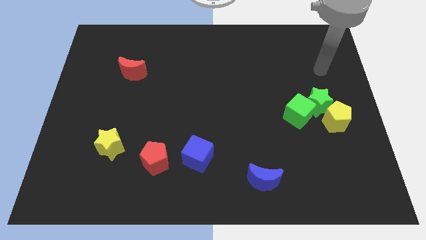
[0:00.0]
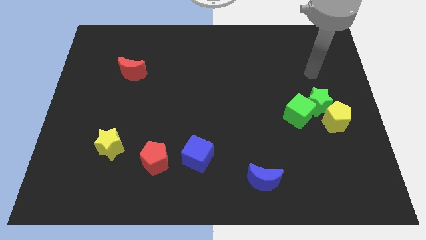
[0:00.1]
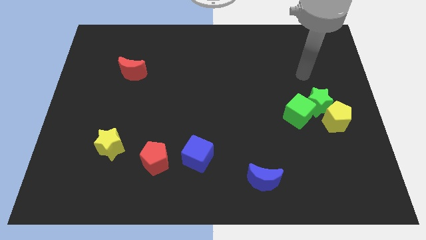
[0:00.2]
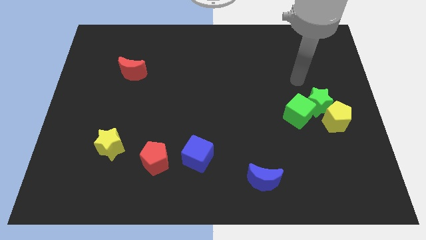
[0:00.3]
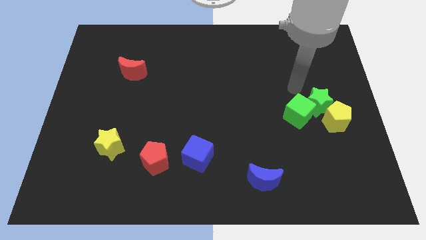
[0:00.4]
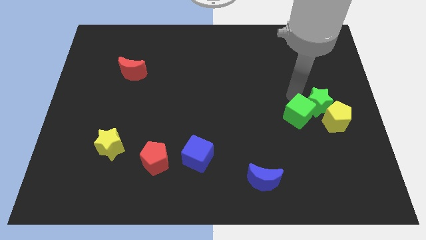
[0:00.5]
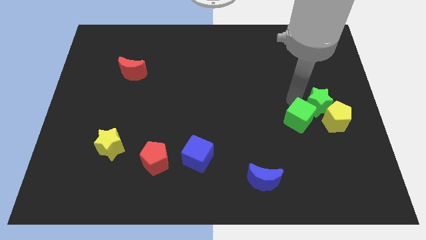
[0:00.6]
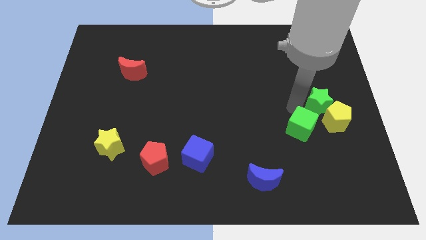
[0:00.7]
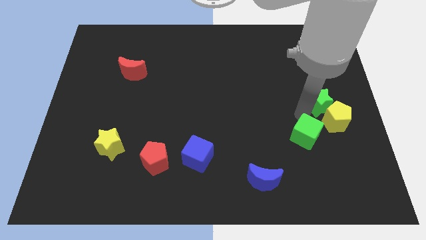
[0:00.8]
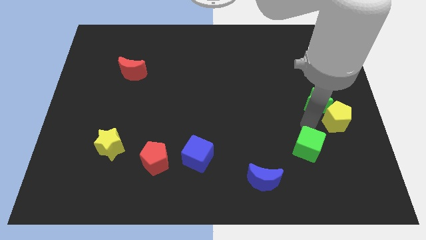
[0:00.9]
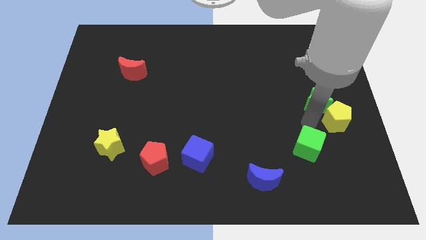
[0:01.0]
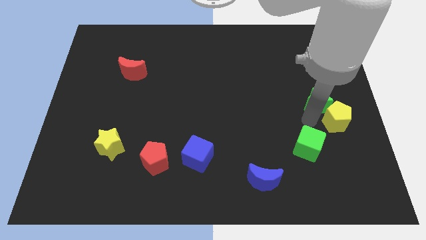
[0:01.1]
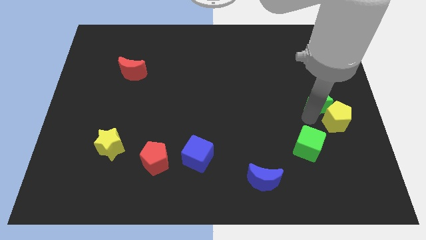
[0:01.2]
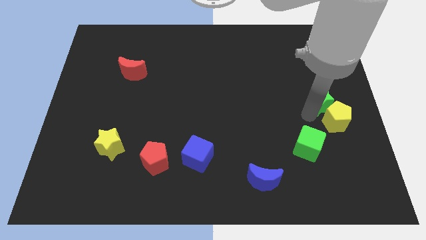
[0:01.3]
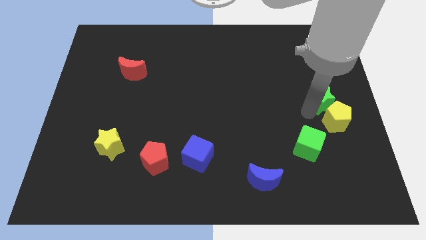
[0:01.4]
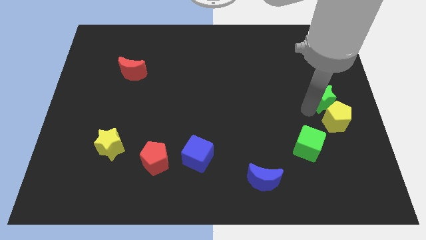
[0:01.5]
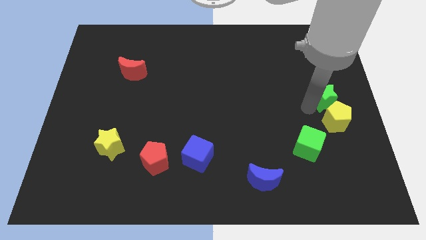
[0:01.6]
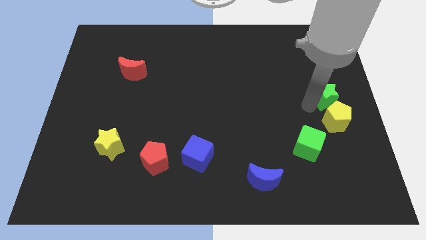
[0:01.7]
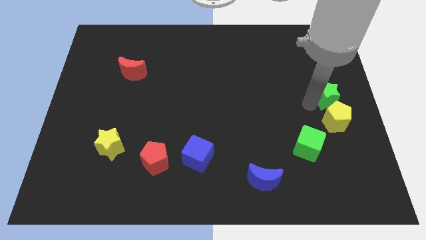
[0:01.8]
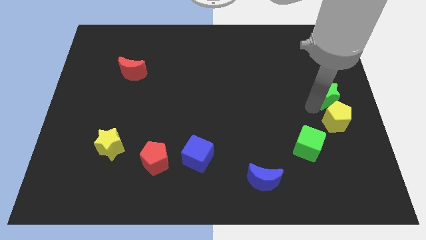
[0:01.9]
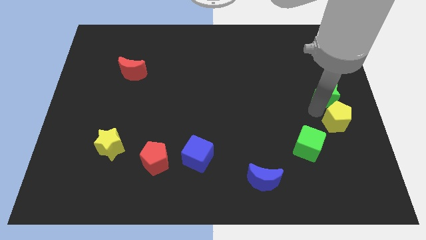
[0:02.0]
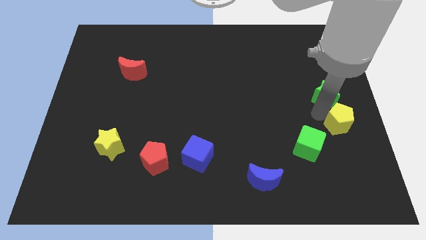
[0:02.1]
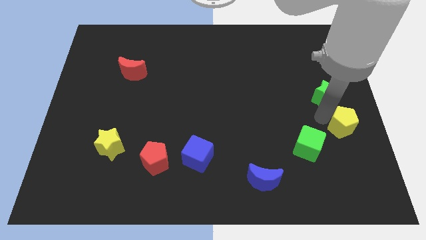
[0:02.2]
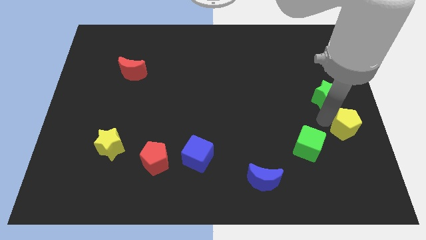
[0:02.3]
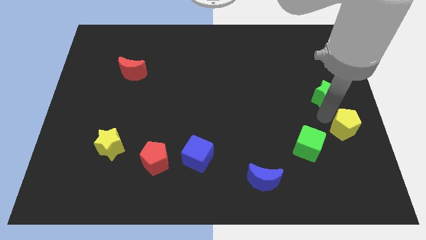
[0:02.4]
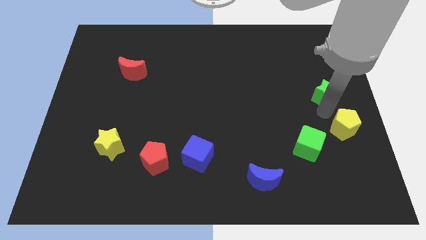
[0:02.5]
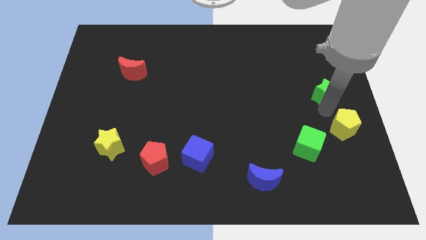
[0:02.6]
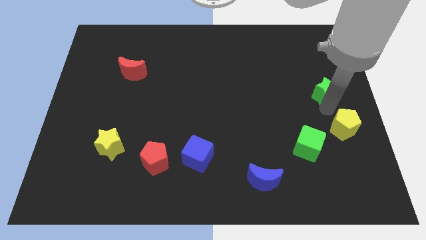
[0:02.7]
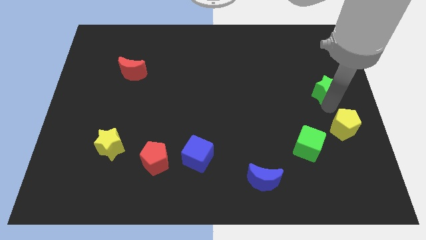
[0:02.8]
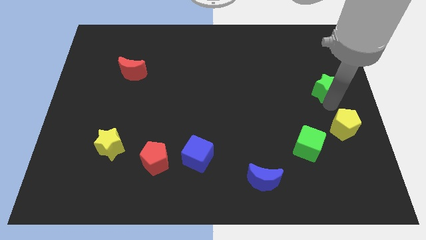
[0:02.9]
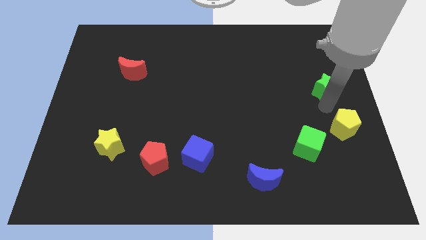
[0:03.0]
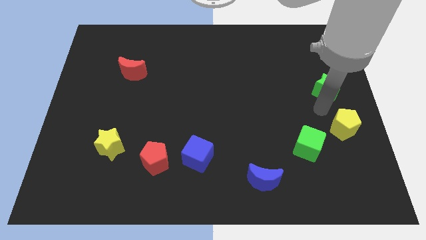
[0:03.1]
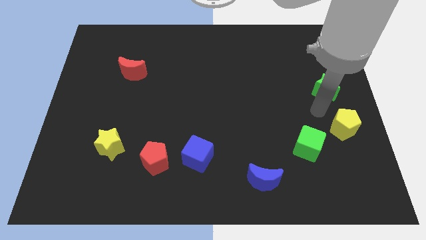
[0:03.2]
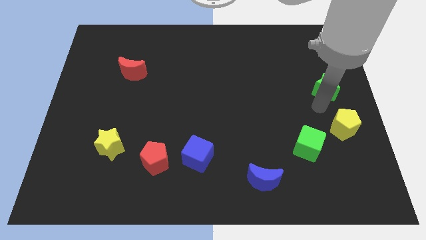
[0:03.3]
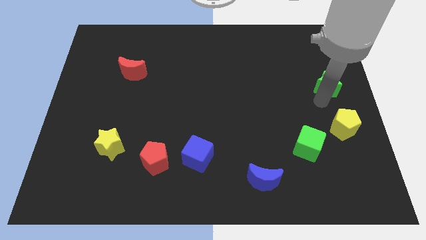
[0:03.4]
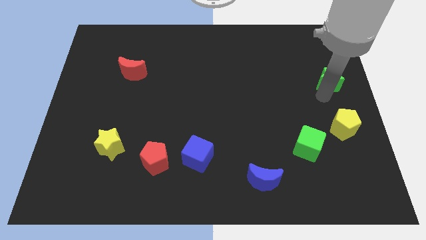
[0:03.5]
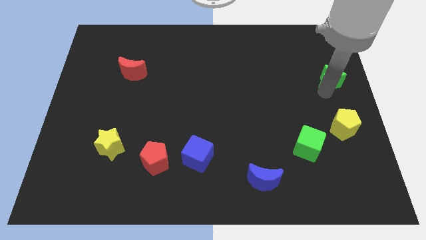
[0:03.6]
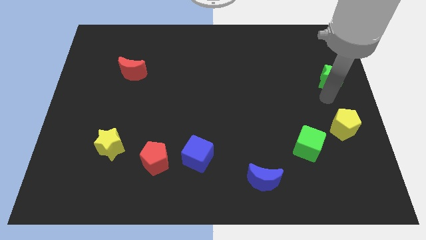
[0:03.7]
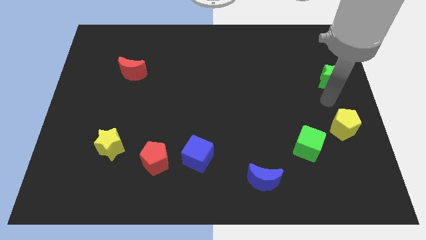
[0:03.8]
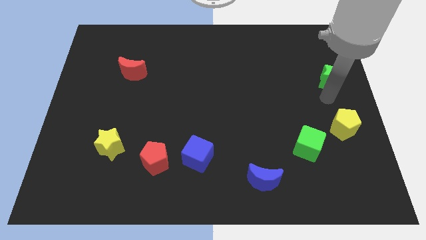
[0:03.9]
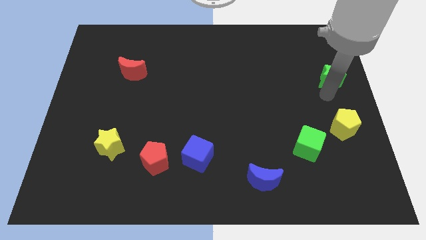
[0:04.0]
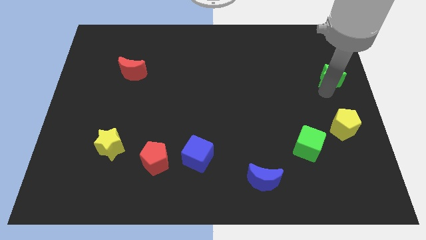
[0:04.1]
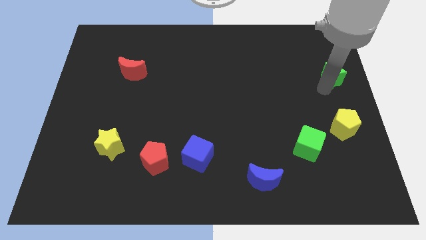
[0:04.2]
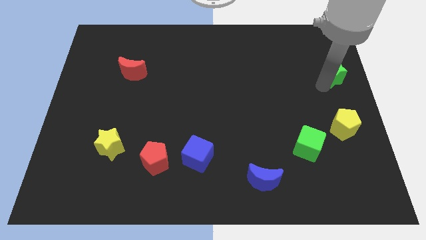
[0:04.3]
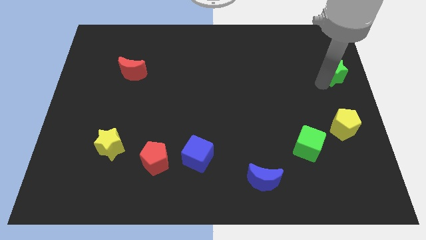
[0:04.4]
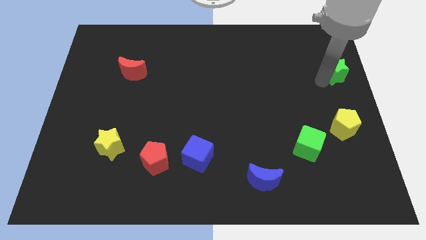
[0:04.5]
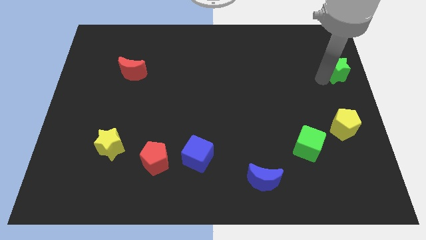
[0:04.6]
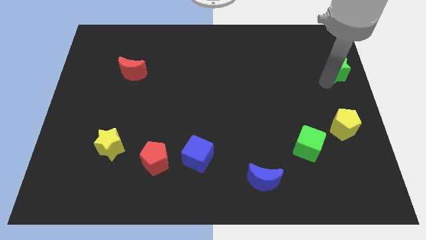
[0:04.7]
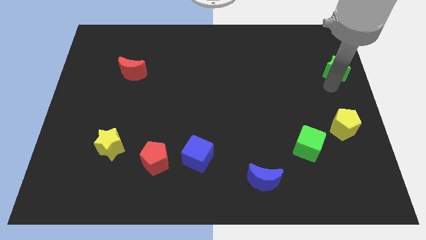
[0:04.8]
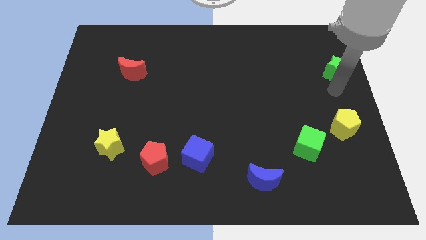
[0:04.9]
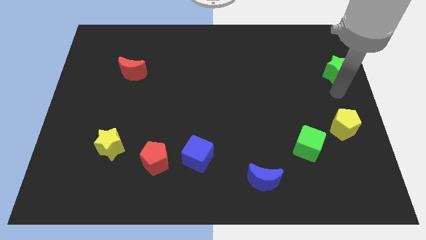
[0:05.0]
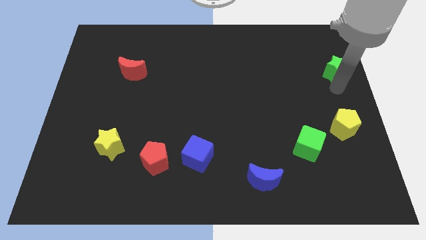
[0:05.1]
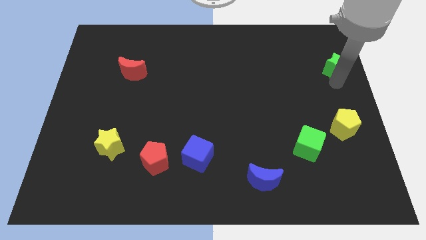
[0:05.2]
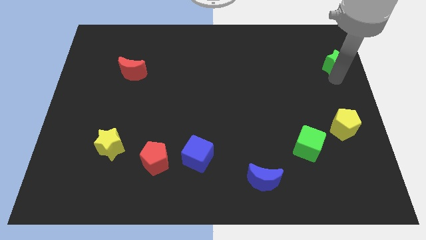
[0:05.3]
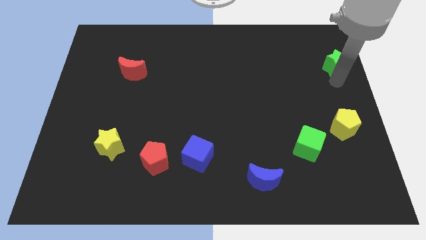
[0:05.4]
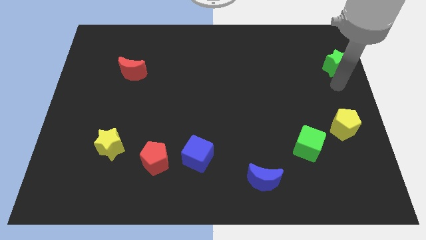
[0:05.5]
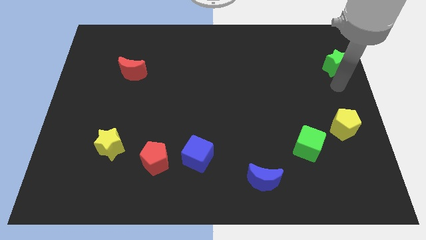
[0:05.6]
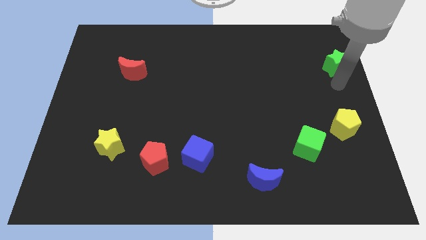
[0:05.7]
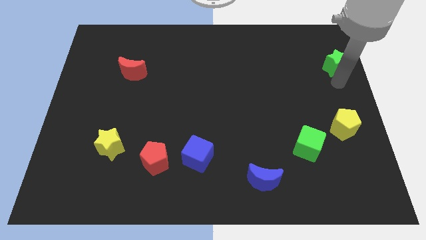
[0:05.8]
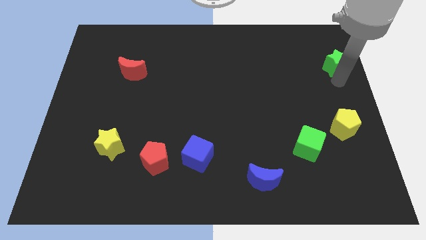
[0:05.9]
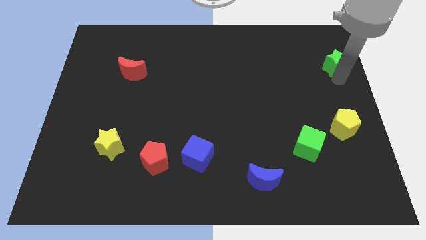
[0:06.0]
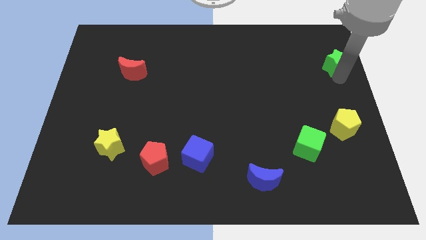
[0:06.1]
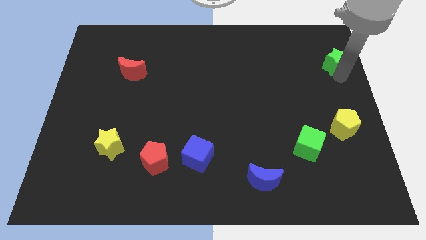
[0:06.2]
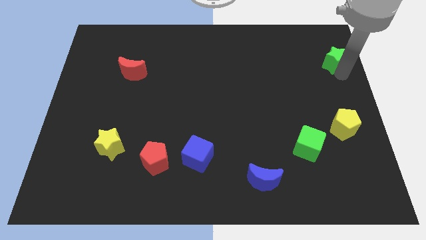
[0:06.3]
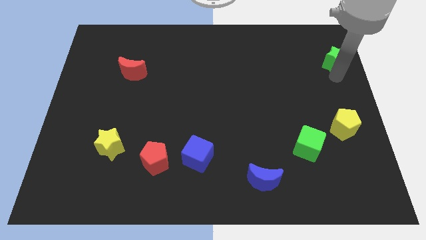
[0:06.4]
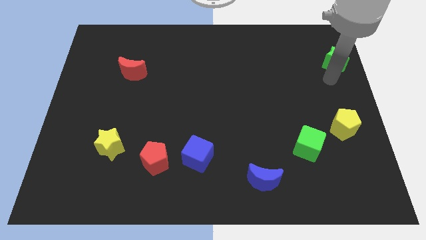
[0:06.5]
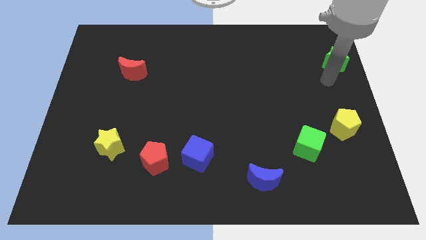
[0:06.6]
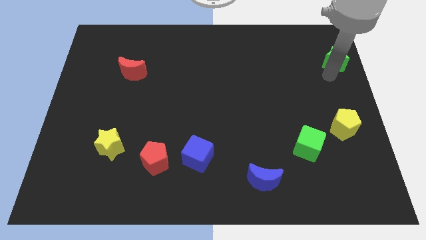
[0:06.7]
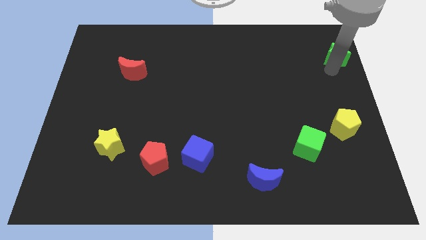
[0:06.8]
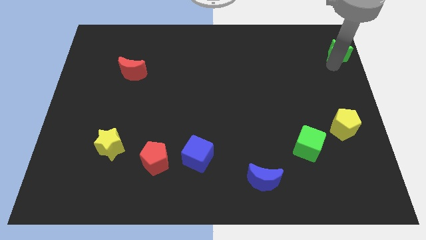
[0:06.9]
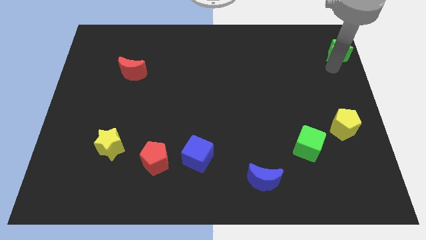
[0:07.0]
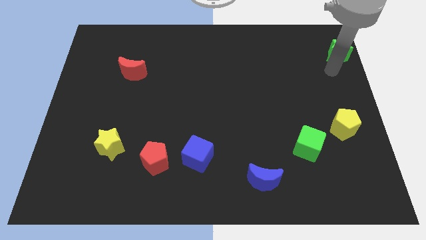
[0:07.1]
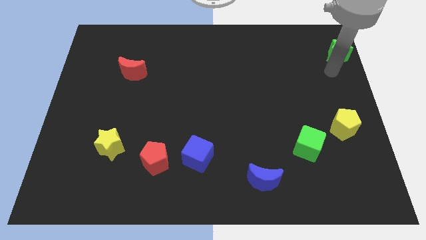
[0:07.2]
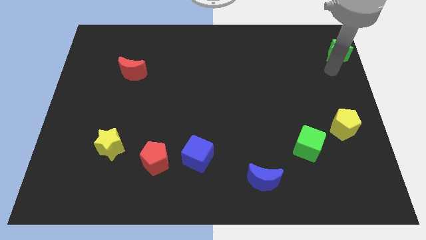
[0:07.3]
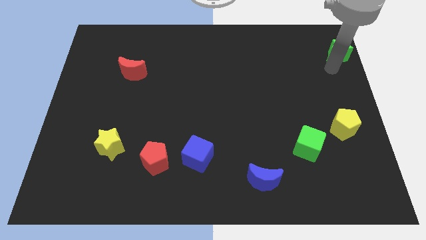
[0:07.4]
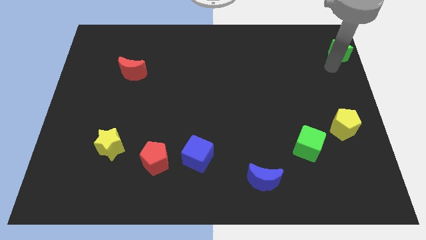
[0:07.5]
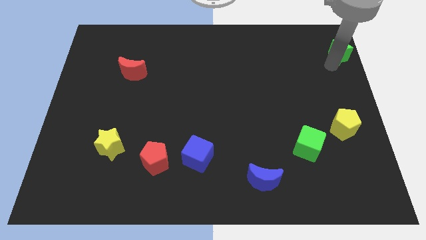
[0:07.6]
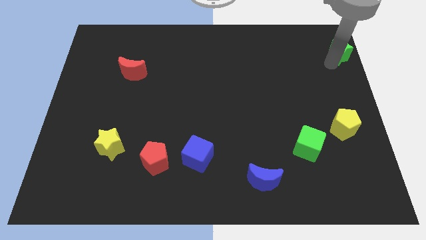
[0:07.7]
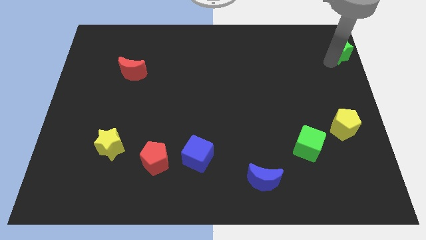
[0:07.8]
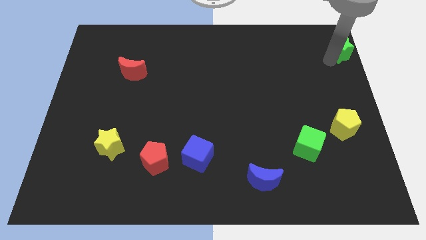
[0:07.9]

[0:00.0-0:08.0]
move the green star to the top right corner
